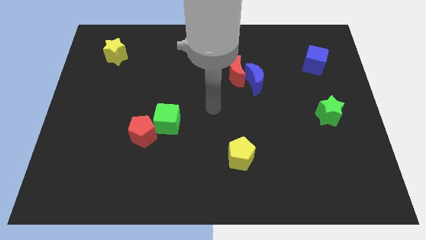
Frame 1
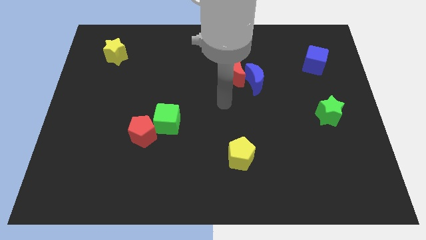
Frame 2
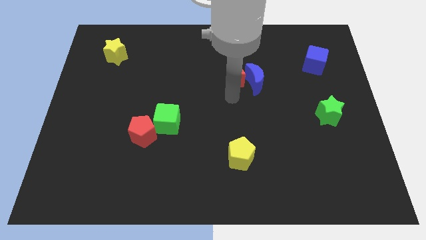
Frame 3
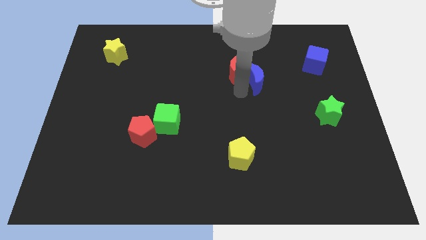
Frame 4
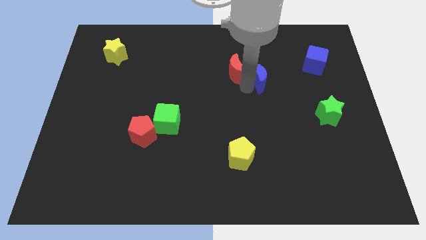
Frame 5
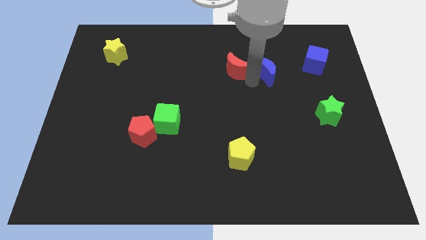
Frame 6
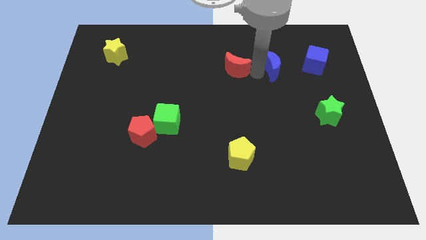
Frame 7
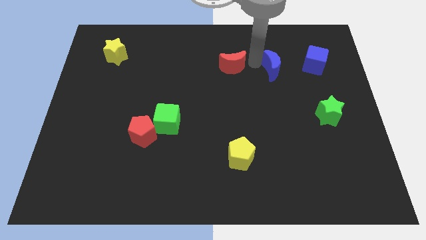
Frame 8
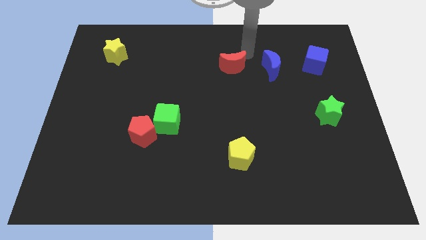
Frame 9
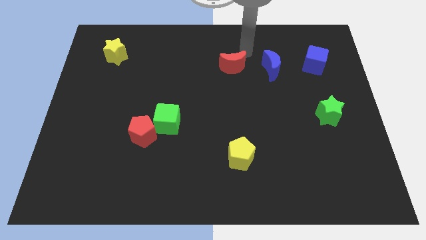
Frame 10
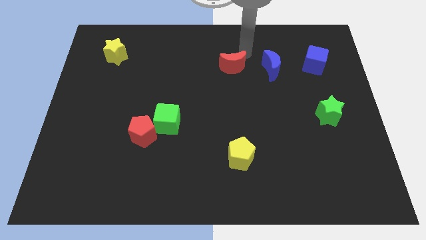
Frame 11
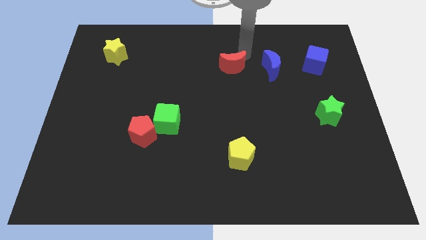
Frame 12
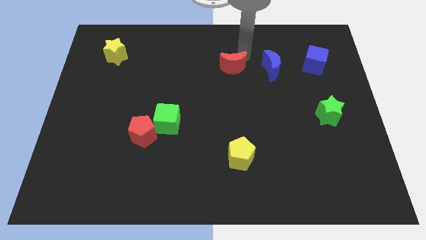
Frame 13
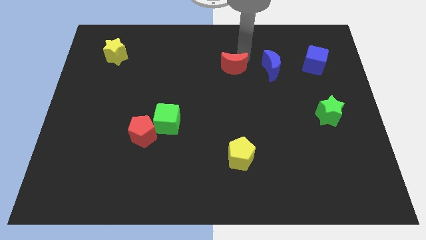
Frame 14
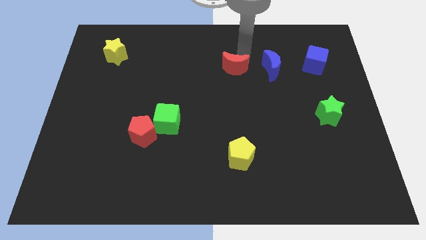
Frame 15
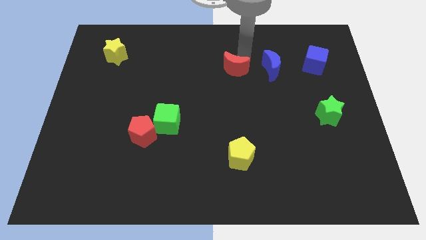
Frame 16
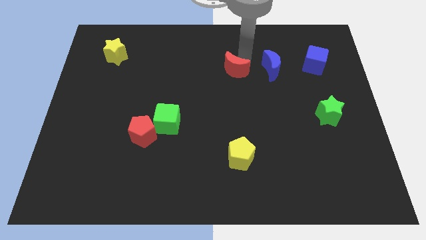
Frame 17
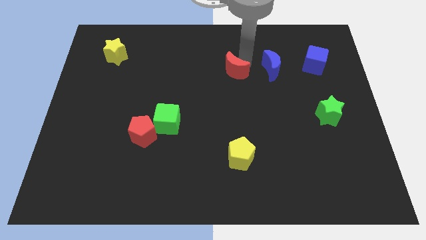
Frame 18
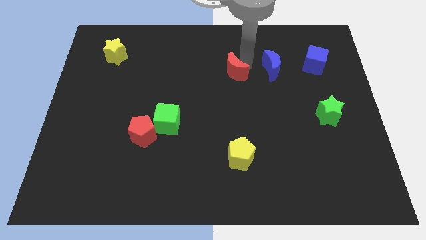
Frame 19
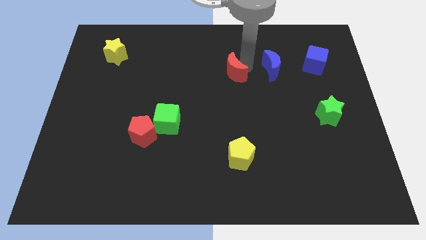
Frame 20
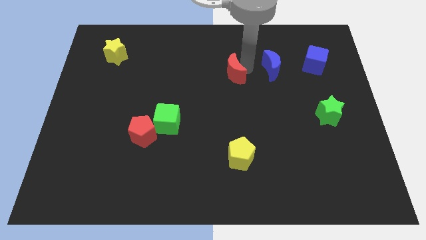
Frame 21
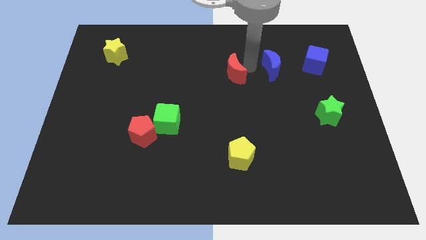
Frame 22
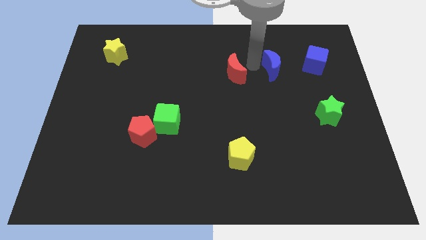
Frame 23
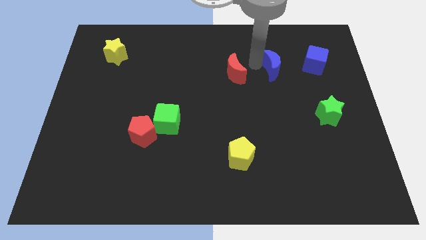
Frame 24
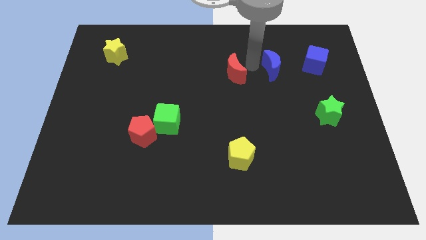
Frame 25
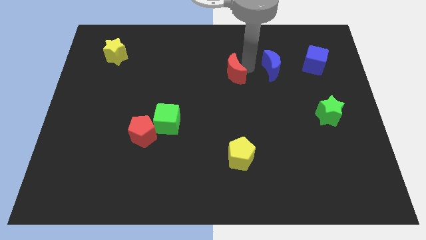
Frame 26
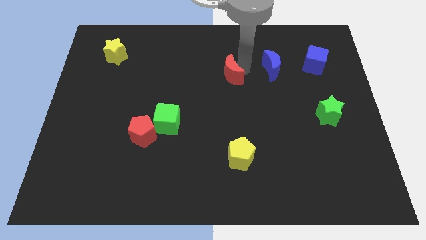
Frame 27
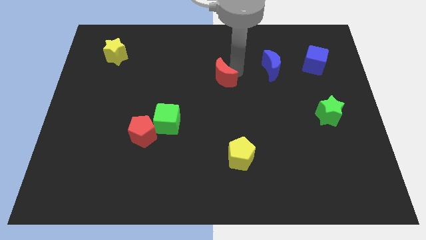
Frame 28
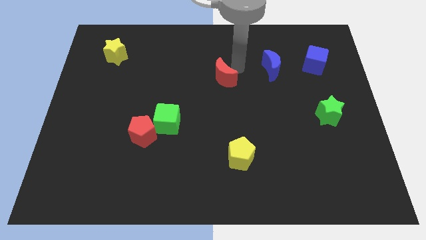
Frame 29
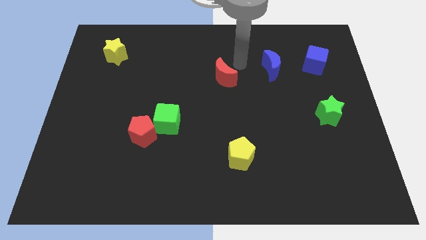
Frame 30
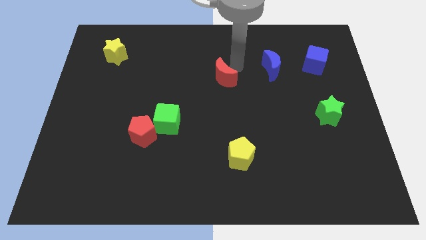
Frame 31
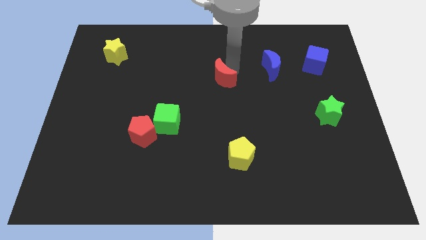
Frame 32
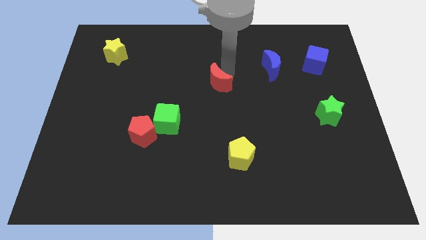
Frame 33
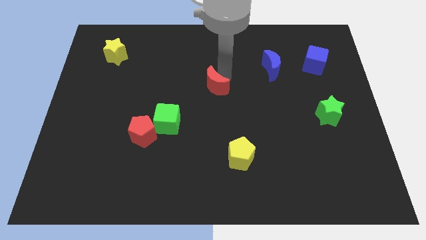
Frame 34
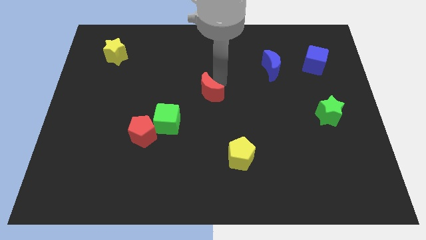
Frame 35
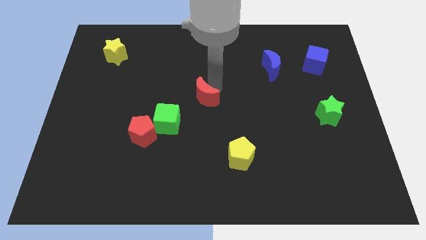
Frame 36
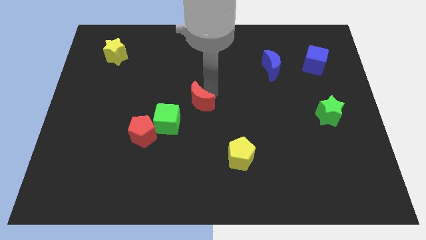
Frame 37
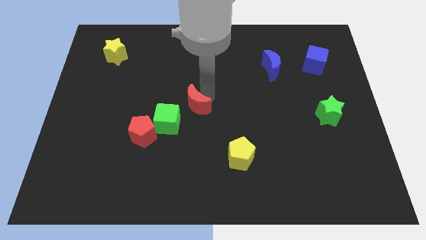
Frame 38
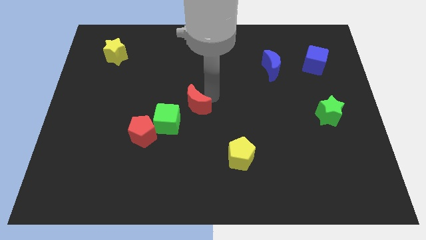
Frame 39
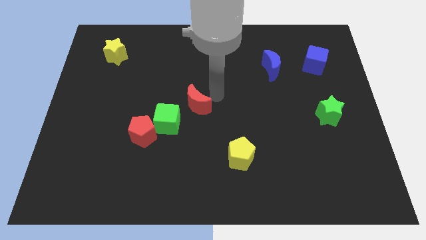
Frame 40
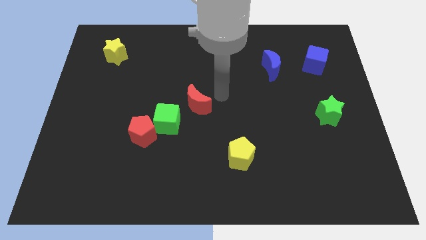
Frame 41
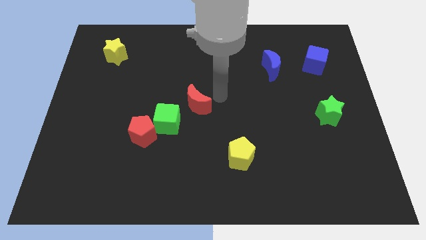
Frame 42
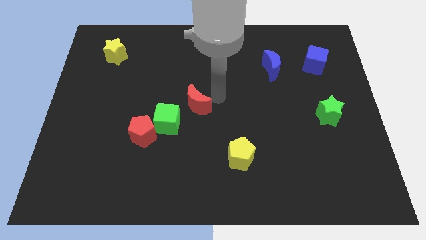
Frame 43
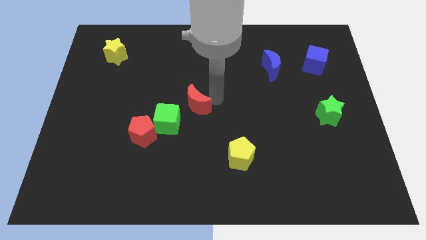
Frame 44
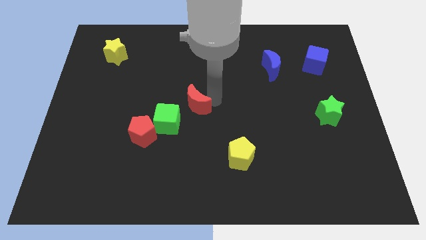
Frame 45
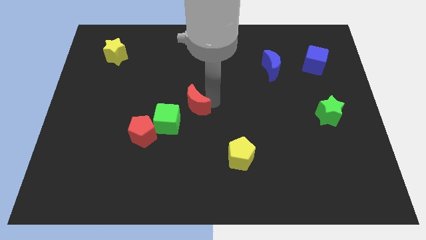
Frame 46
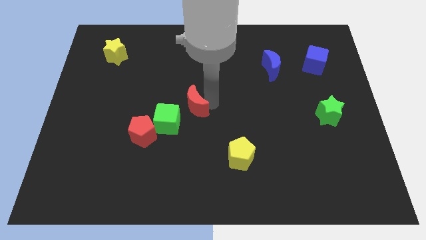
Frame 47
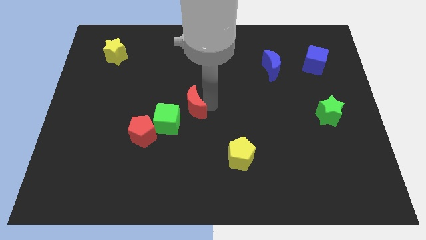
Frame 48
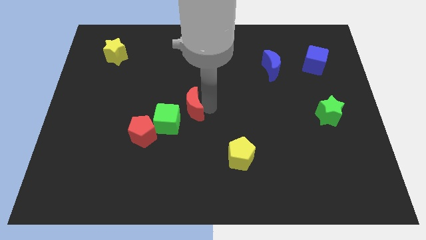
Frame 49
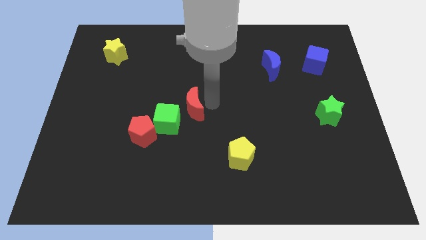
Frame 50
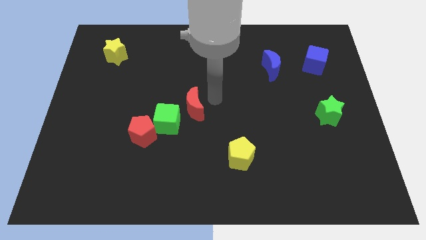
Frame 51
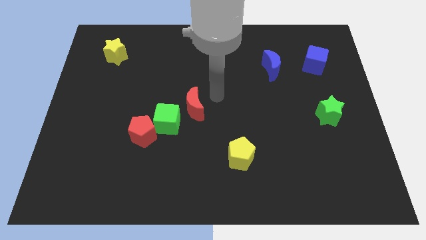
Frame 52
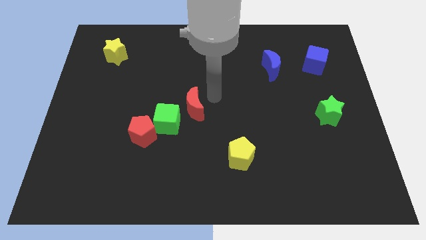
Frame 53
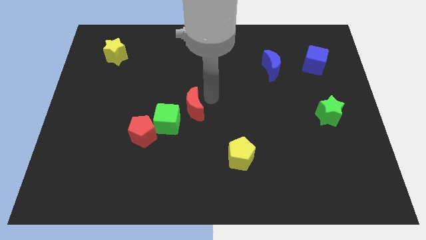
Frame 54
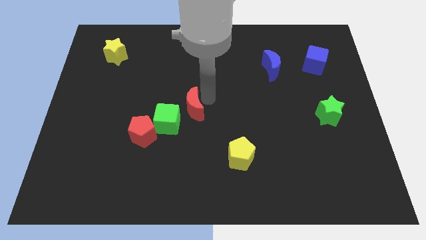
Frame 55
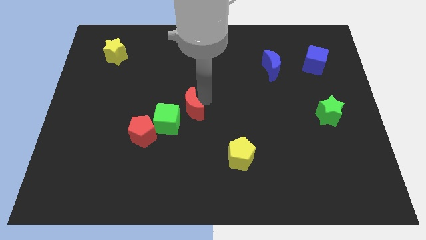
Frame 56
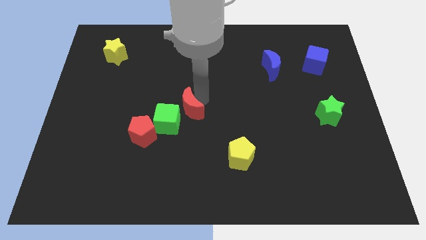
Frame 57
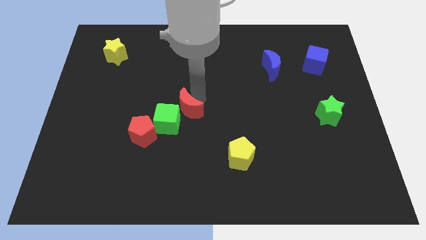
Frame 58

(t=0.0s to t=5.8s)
slide the red moon close to the green cube

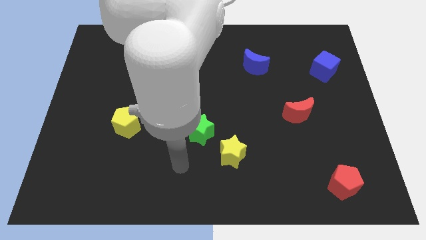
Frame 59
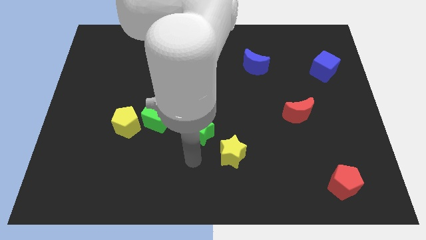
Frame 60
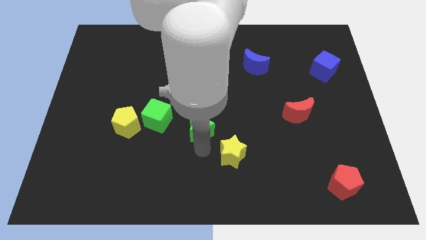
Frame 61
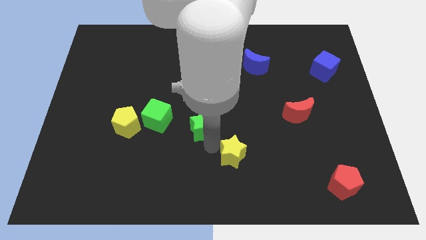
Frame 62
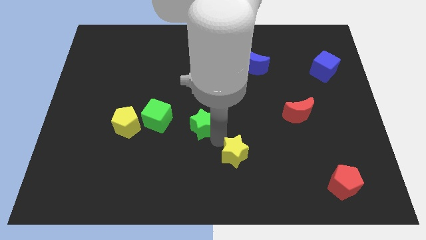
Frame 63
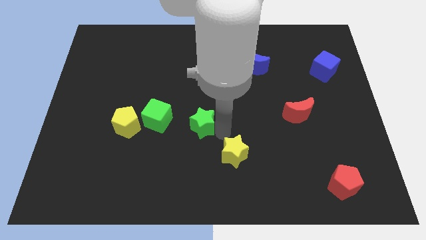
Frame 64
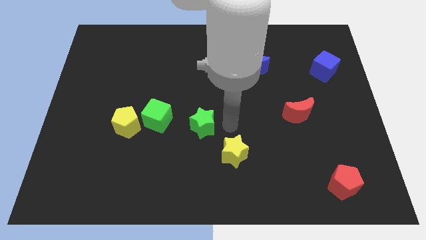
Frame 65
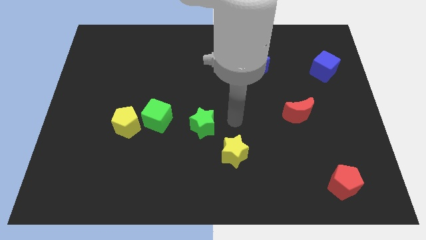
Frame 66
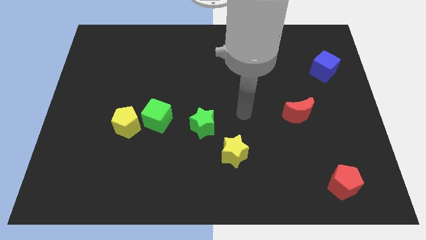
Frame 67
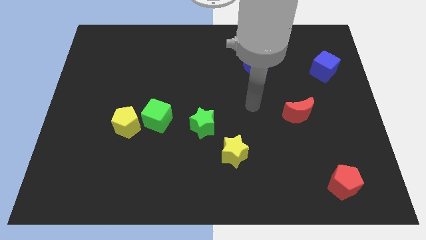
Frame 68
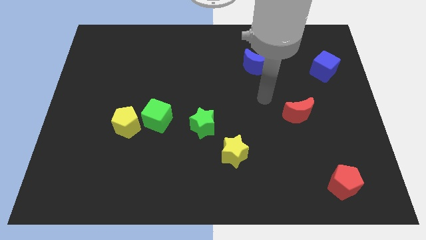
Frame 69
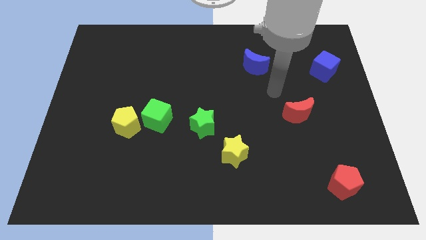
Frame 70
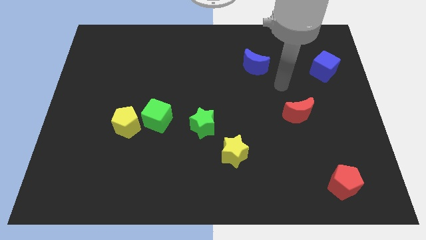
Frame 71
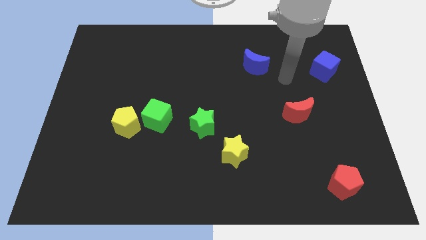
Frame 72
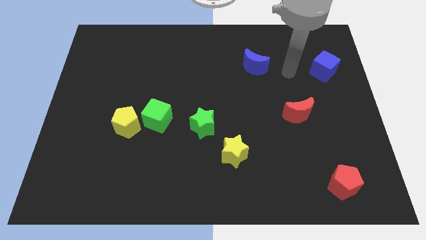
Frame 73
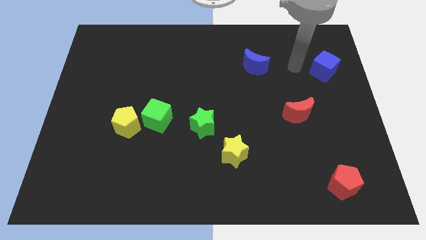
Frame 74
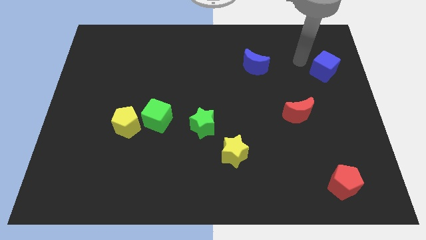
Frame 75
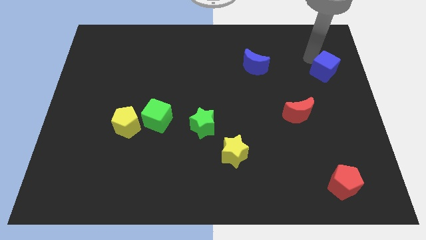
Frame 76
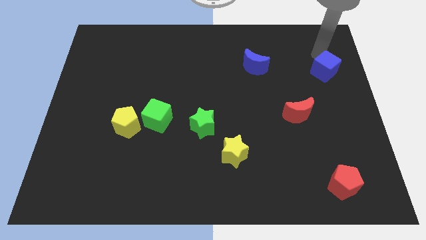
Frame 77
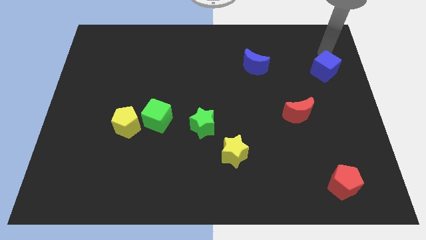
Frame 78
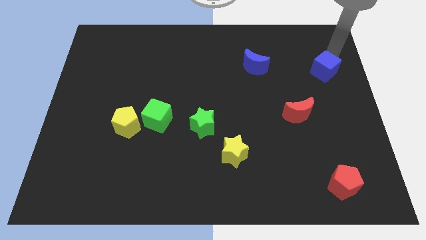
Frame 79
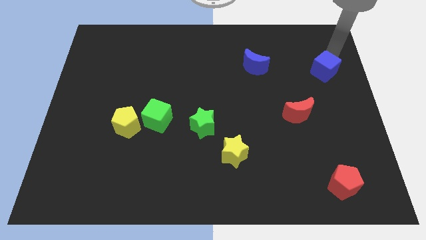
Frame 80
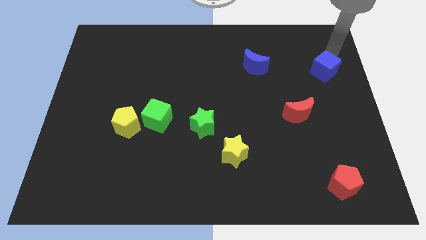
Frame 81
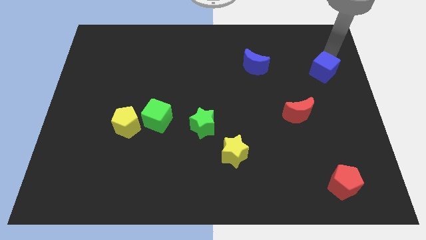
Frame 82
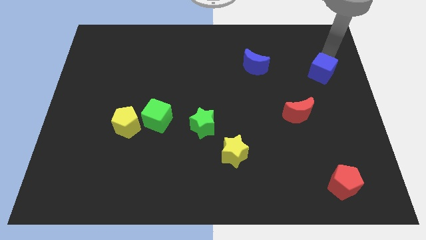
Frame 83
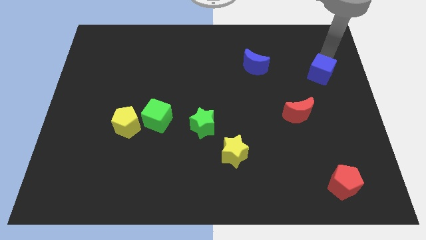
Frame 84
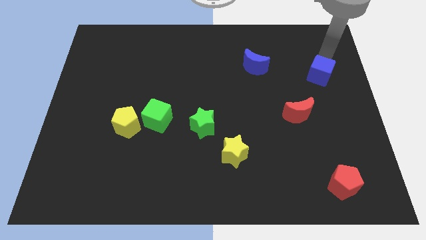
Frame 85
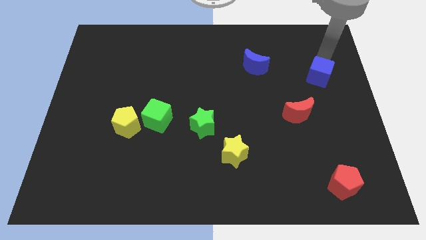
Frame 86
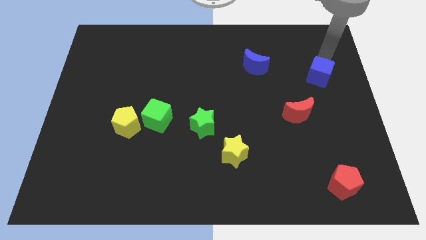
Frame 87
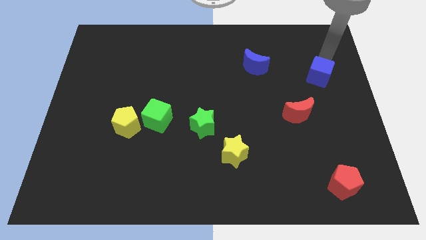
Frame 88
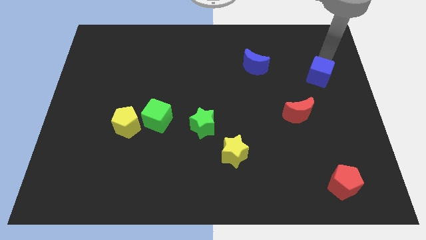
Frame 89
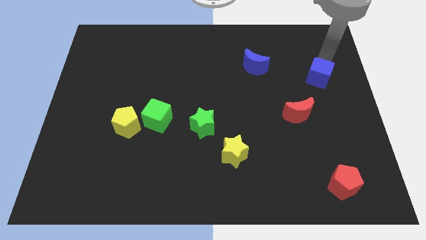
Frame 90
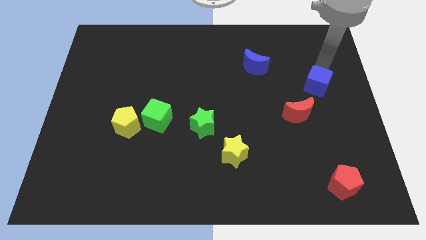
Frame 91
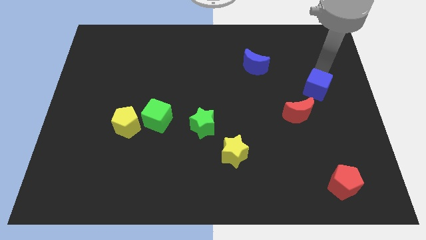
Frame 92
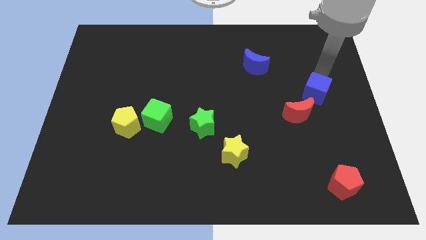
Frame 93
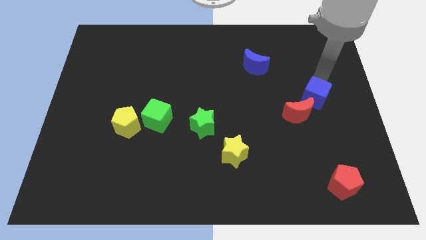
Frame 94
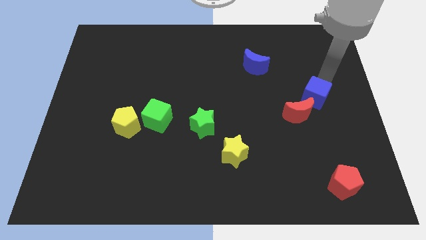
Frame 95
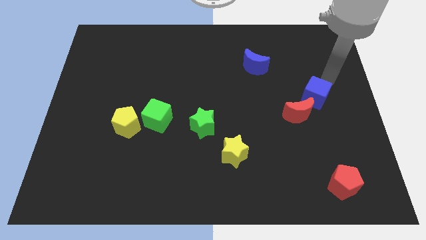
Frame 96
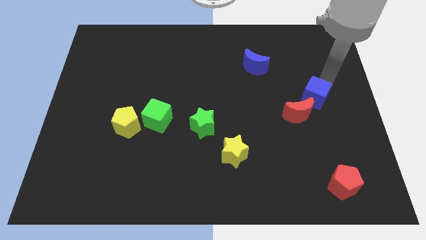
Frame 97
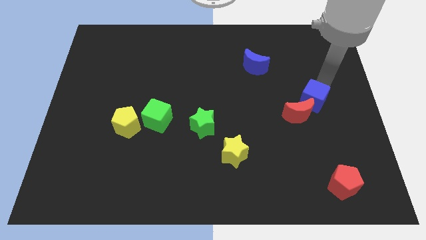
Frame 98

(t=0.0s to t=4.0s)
put the blue cube towards the red moon
